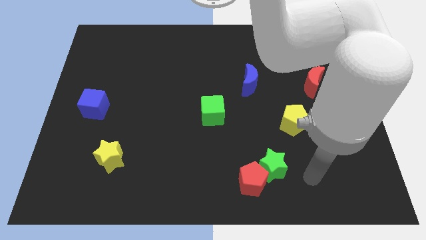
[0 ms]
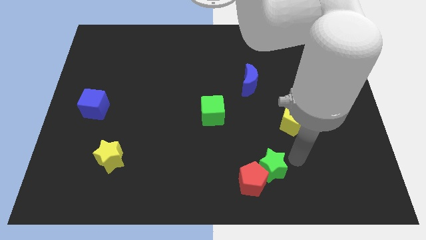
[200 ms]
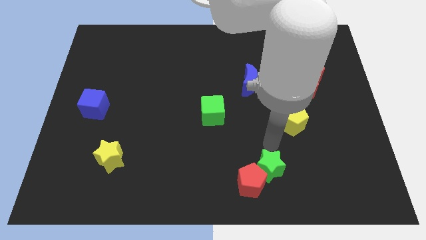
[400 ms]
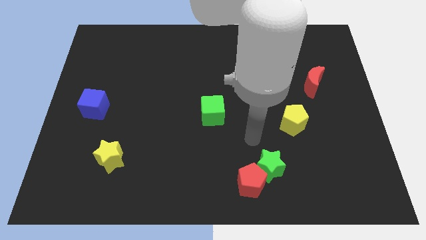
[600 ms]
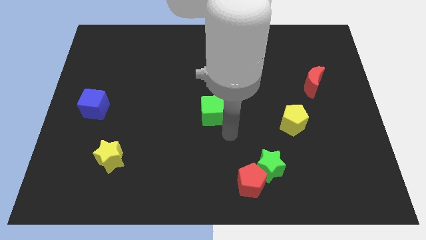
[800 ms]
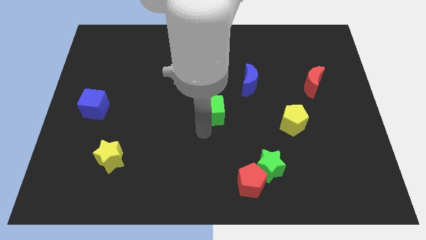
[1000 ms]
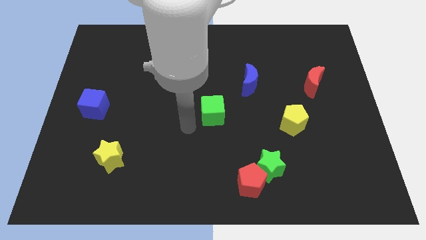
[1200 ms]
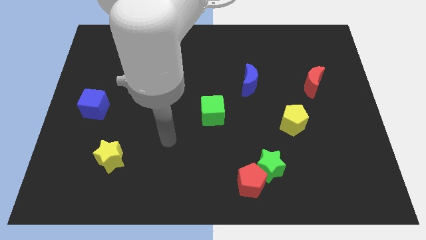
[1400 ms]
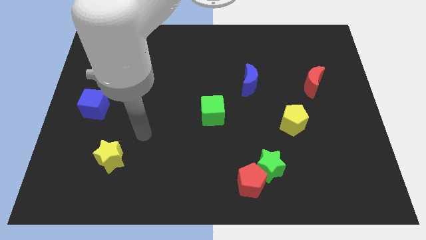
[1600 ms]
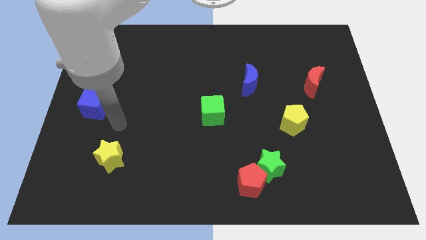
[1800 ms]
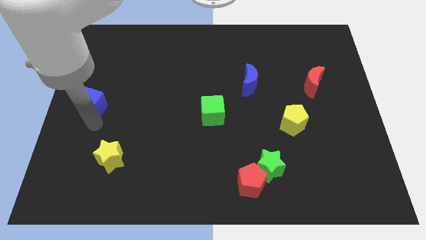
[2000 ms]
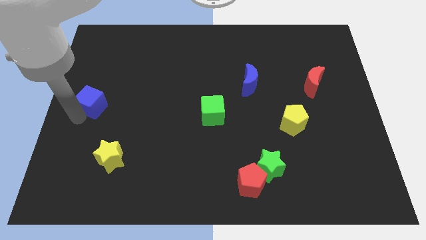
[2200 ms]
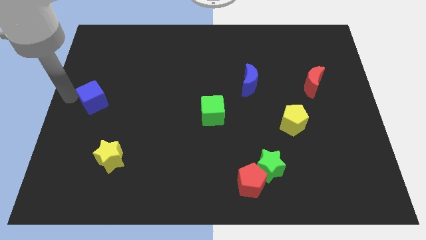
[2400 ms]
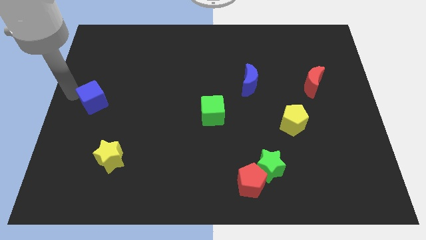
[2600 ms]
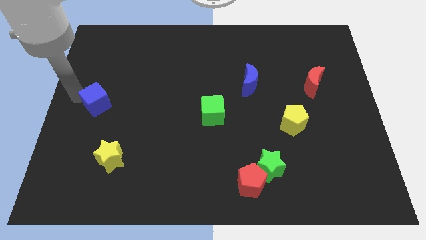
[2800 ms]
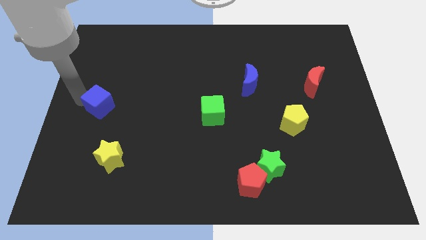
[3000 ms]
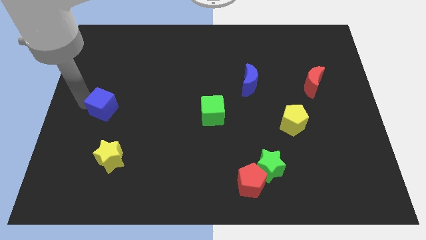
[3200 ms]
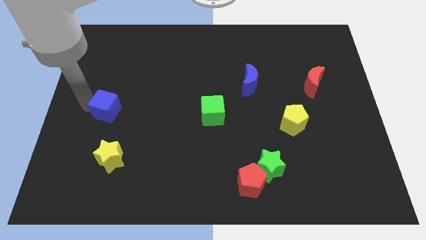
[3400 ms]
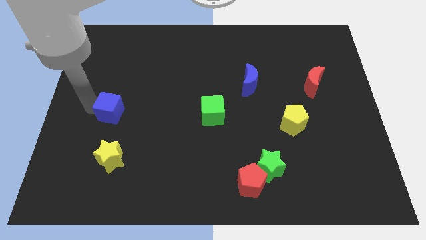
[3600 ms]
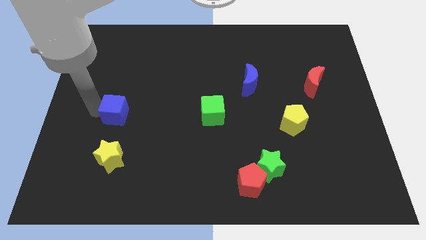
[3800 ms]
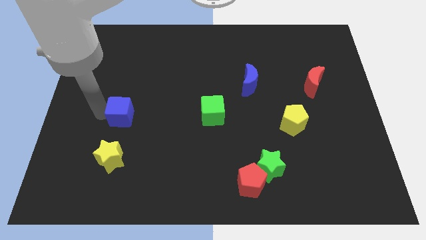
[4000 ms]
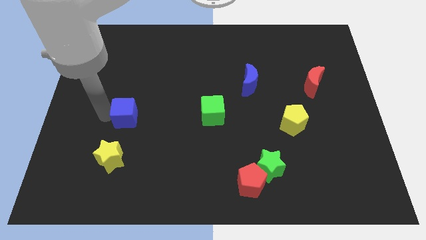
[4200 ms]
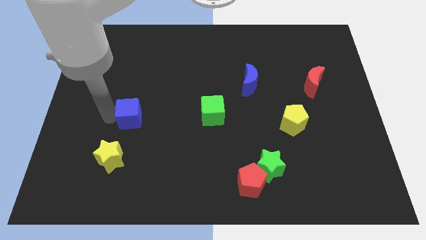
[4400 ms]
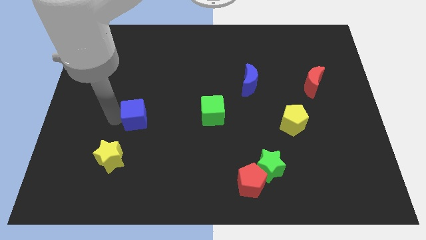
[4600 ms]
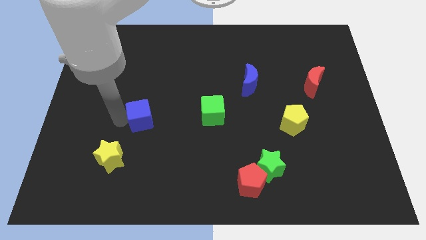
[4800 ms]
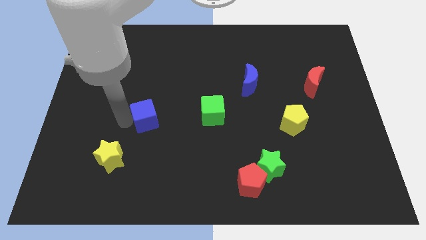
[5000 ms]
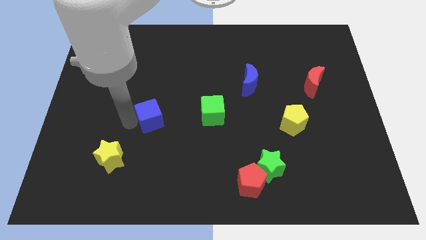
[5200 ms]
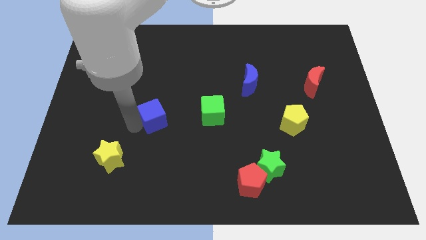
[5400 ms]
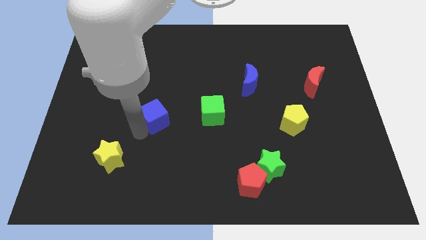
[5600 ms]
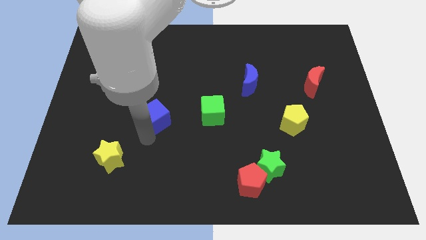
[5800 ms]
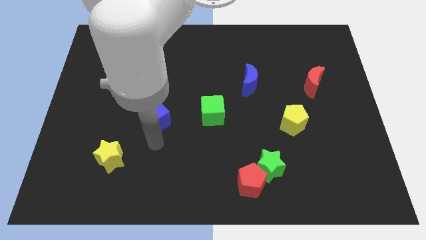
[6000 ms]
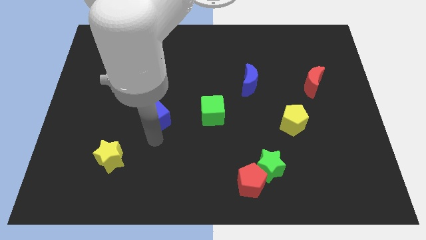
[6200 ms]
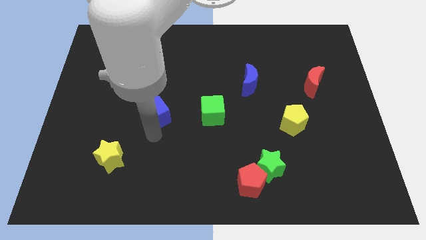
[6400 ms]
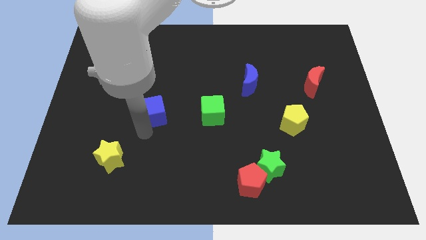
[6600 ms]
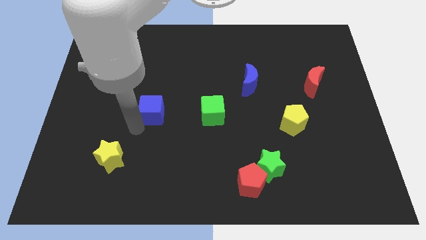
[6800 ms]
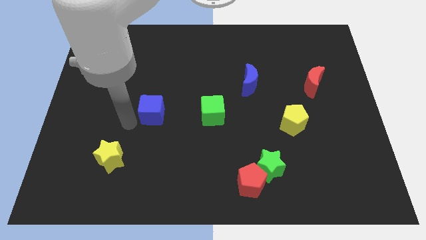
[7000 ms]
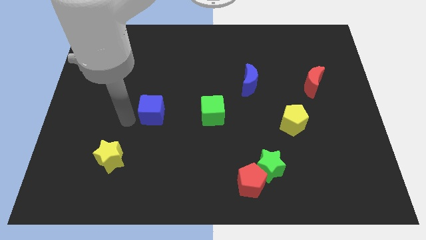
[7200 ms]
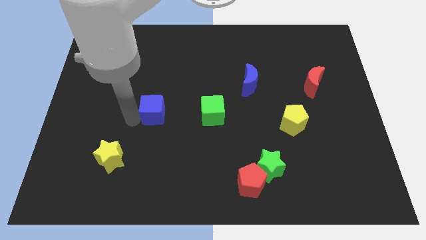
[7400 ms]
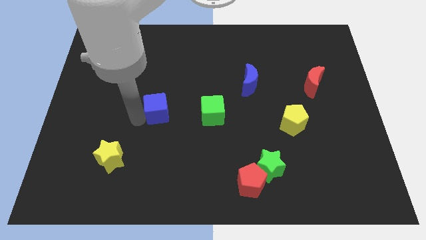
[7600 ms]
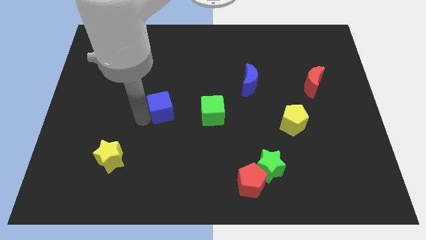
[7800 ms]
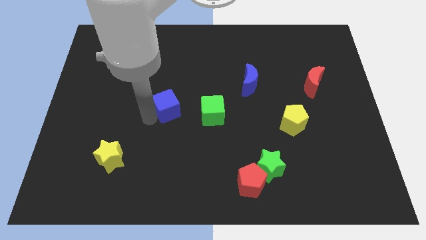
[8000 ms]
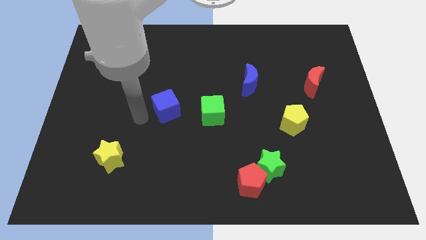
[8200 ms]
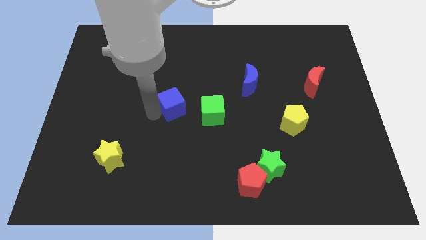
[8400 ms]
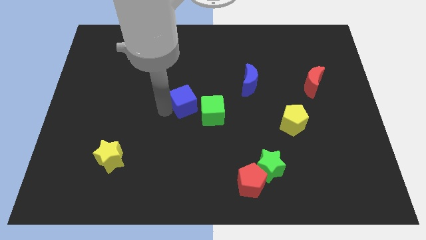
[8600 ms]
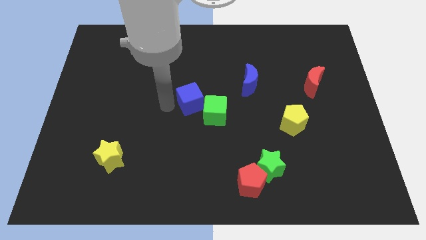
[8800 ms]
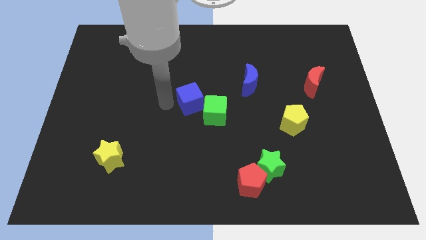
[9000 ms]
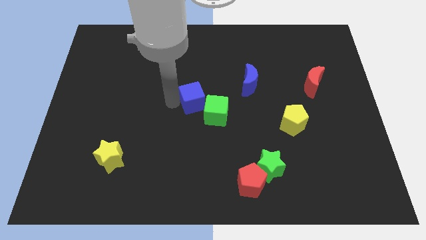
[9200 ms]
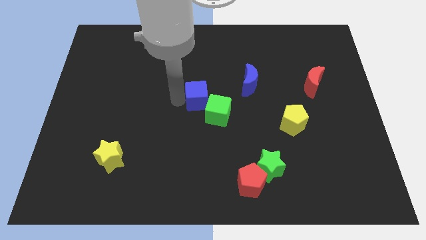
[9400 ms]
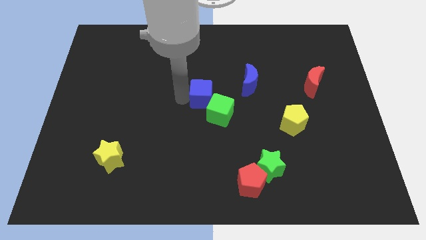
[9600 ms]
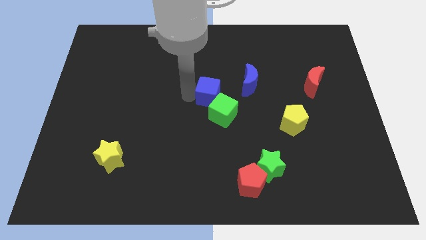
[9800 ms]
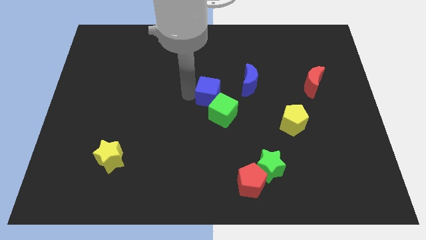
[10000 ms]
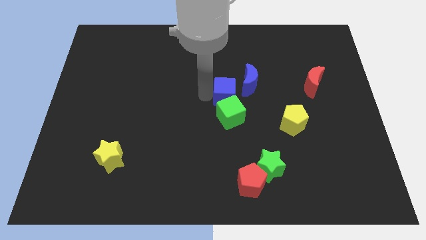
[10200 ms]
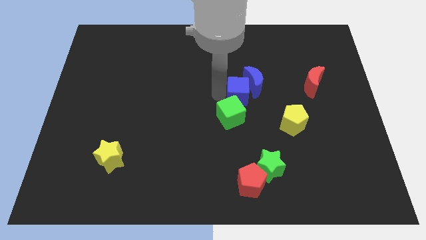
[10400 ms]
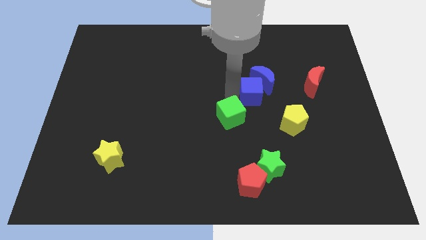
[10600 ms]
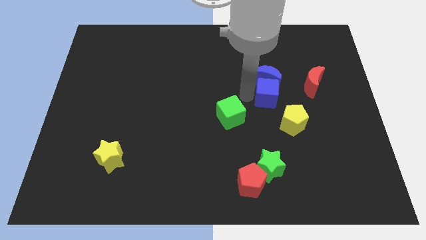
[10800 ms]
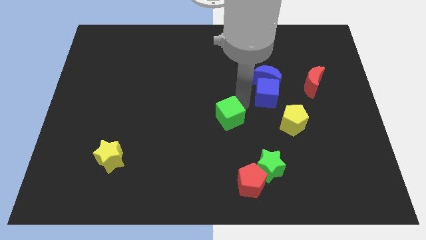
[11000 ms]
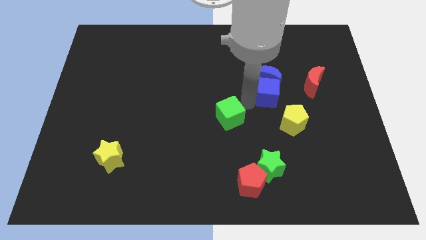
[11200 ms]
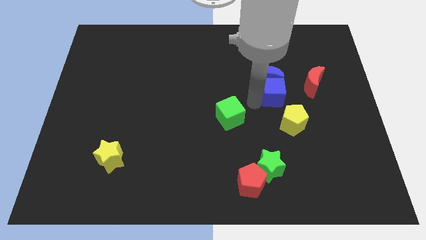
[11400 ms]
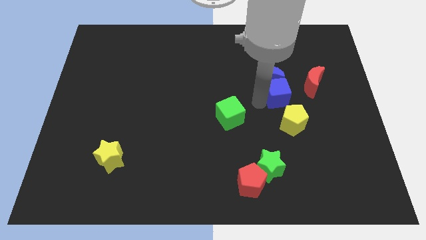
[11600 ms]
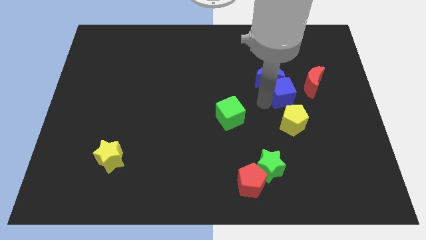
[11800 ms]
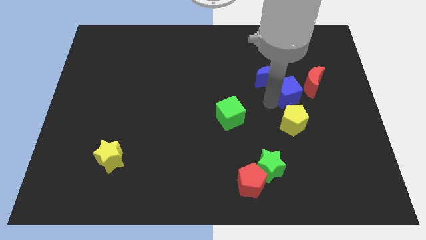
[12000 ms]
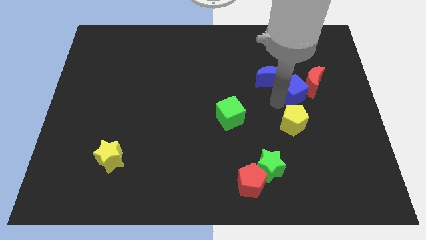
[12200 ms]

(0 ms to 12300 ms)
slide the blue cube towards the red moon

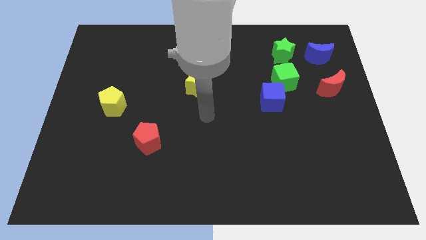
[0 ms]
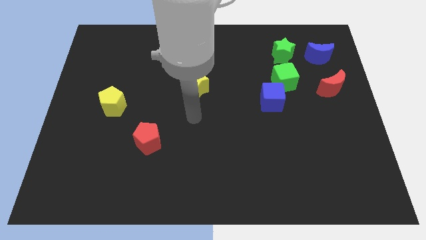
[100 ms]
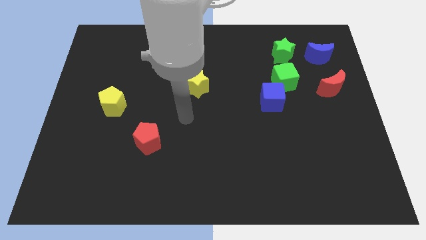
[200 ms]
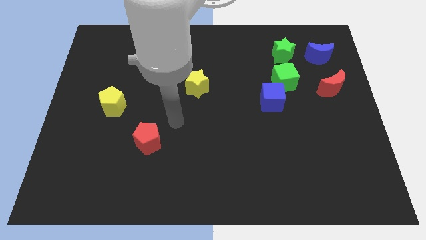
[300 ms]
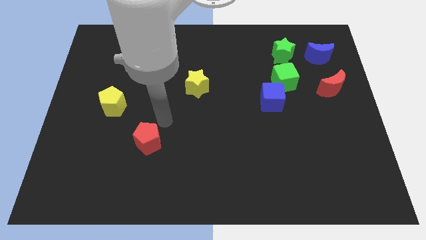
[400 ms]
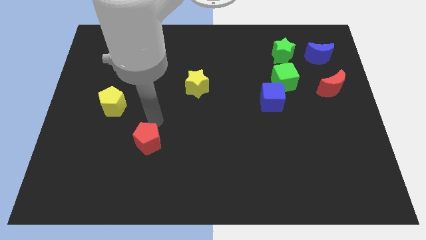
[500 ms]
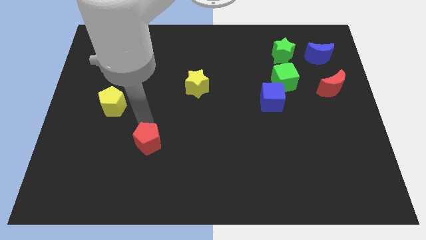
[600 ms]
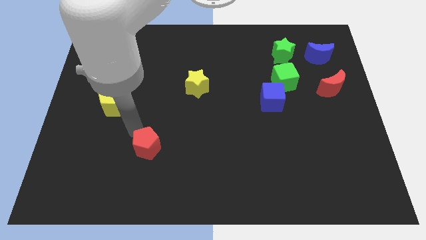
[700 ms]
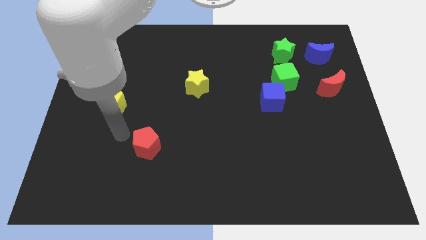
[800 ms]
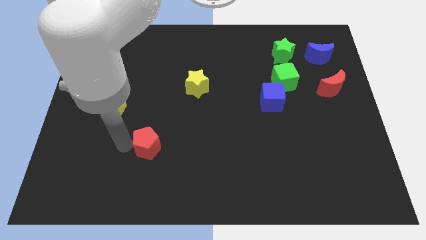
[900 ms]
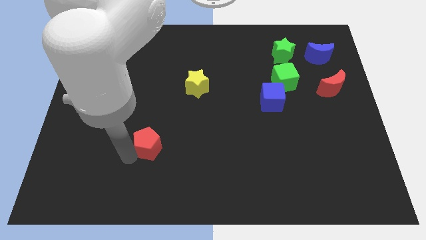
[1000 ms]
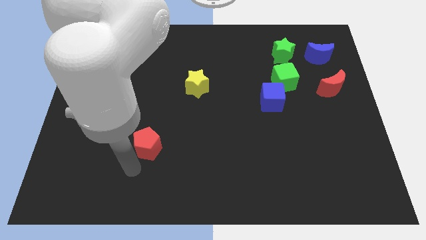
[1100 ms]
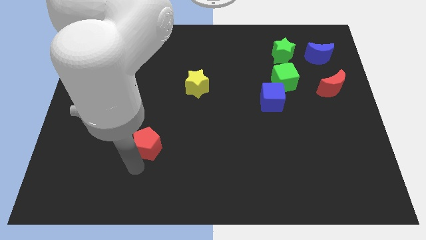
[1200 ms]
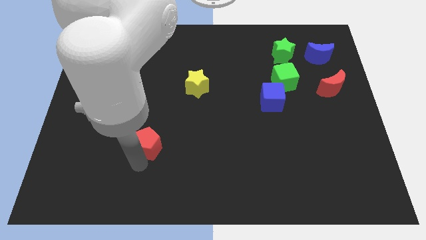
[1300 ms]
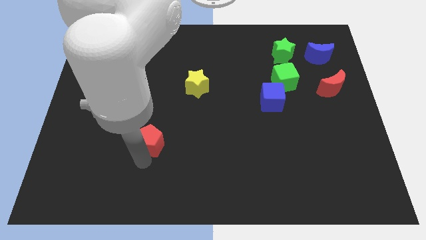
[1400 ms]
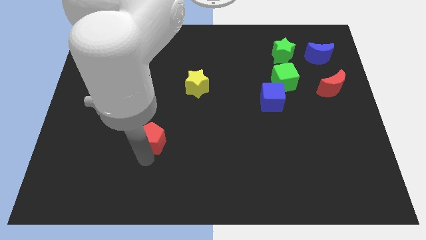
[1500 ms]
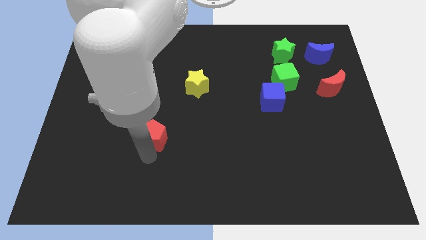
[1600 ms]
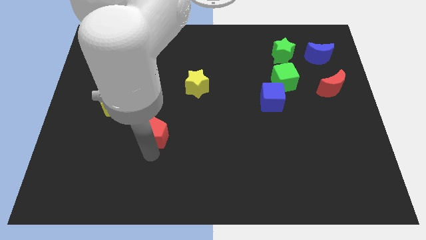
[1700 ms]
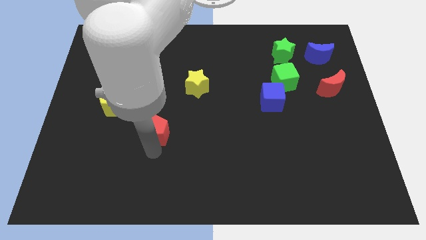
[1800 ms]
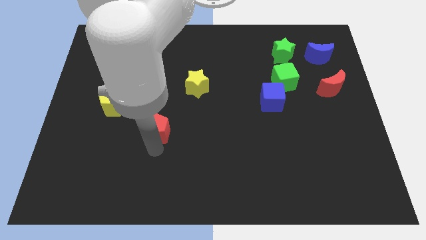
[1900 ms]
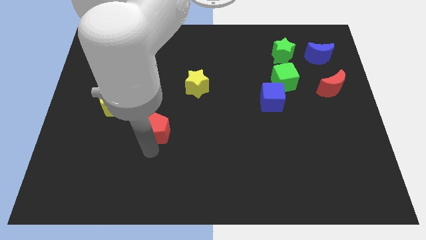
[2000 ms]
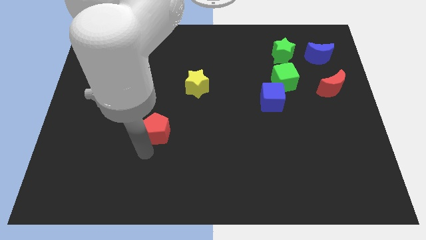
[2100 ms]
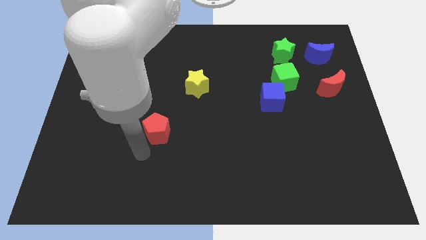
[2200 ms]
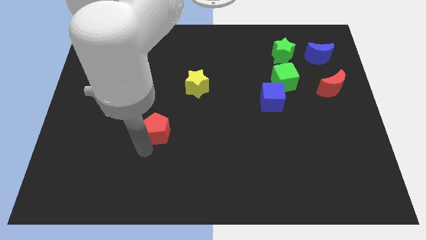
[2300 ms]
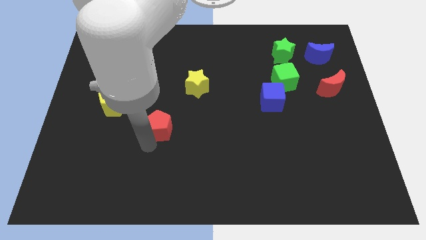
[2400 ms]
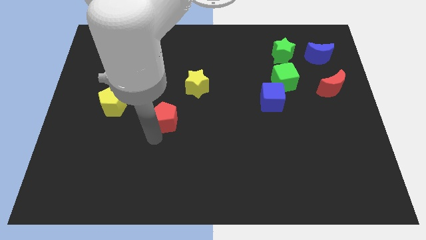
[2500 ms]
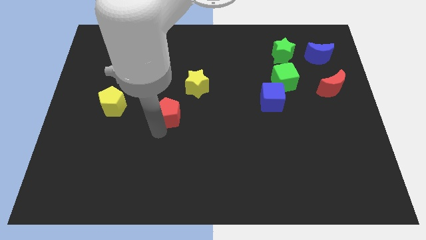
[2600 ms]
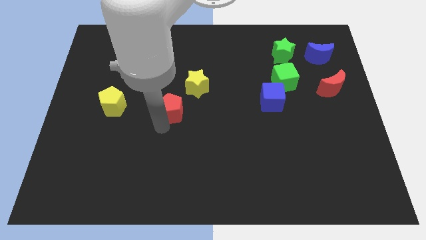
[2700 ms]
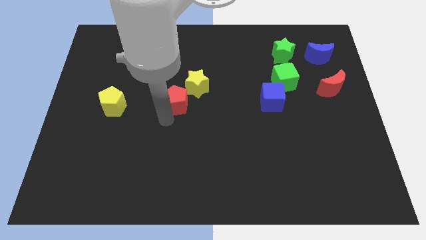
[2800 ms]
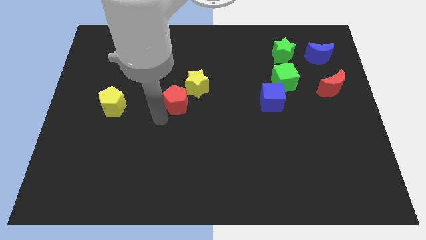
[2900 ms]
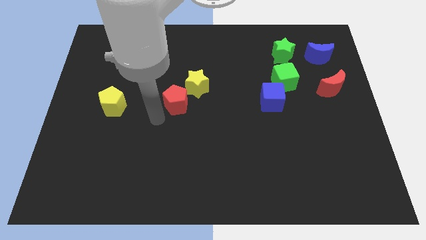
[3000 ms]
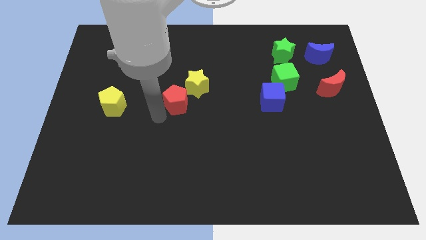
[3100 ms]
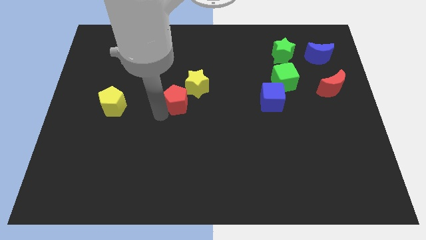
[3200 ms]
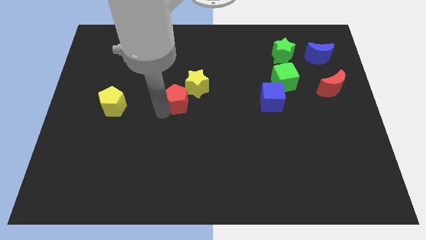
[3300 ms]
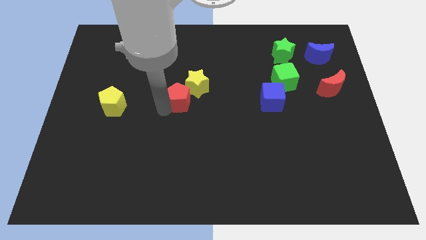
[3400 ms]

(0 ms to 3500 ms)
put the red pentagon to the yellow star
